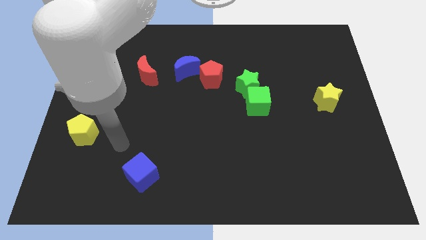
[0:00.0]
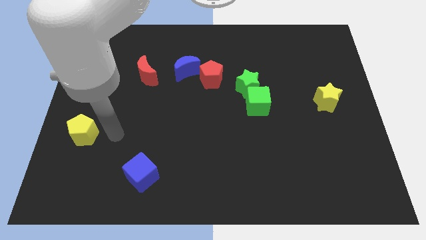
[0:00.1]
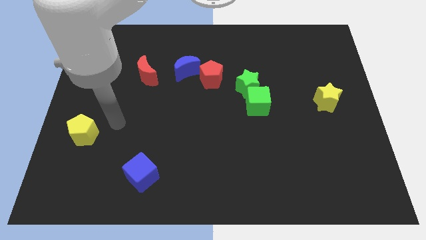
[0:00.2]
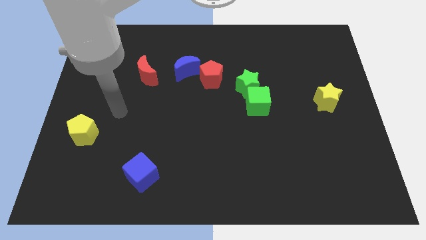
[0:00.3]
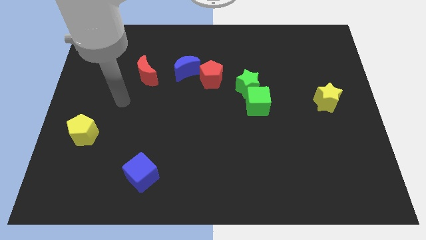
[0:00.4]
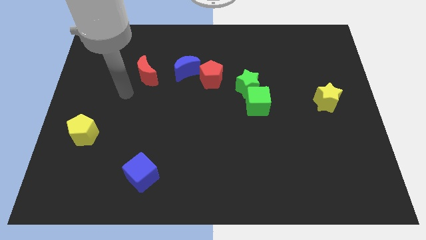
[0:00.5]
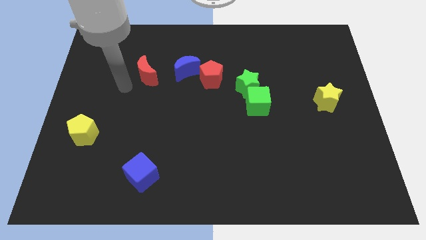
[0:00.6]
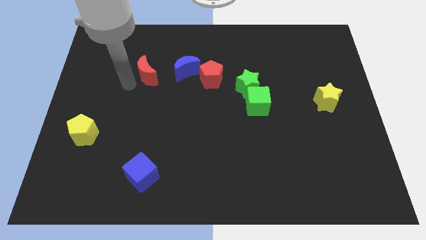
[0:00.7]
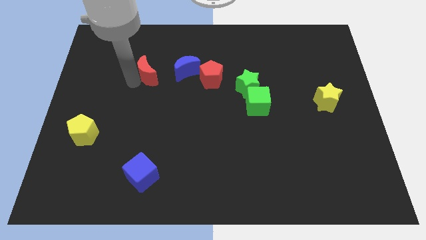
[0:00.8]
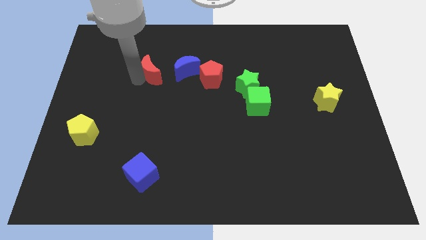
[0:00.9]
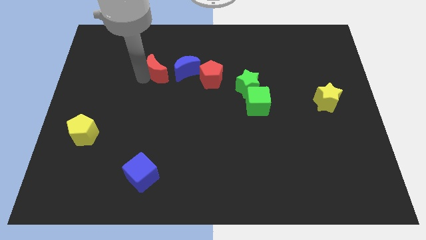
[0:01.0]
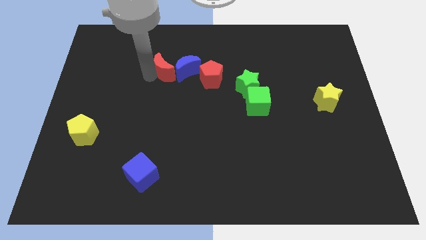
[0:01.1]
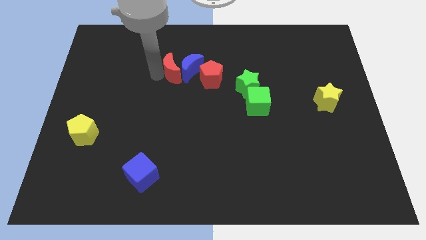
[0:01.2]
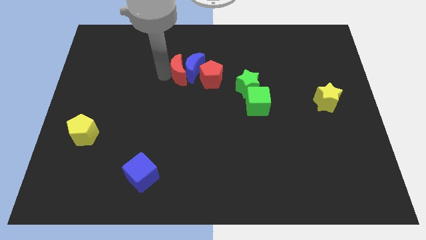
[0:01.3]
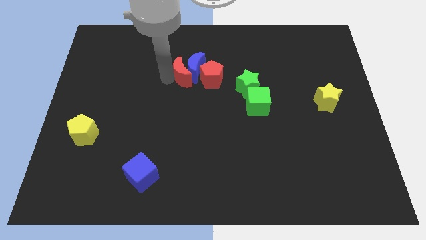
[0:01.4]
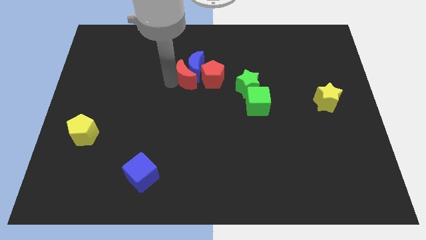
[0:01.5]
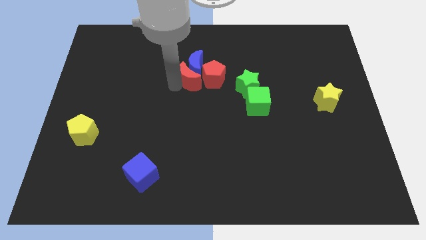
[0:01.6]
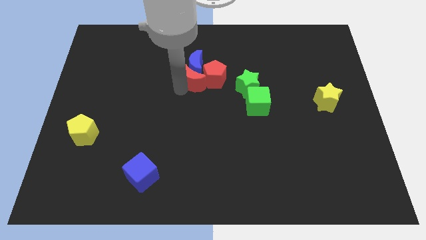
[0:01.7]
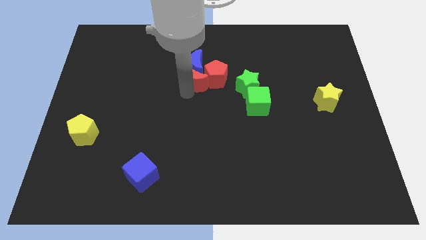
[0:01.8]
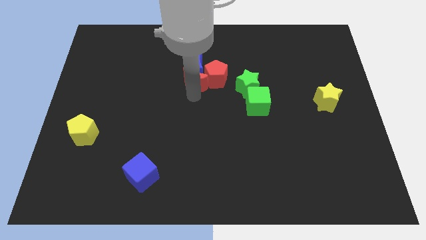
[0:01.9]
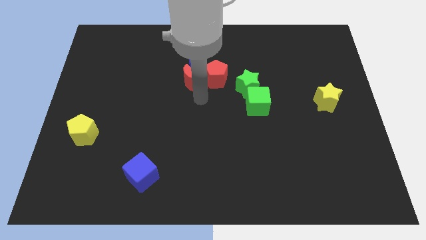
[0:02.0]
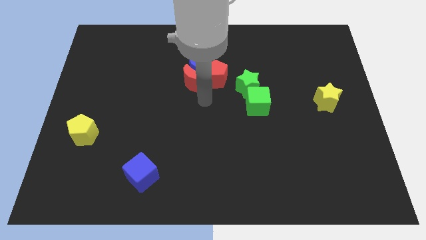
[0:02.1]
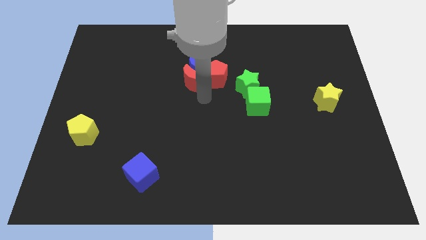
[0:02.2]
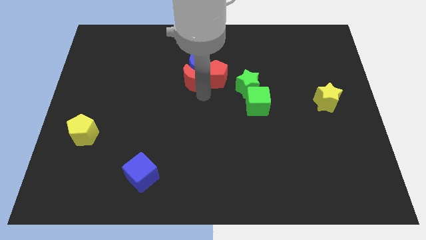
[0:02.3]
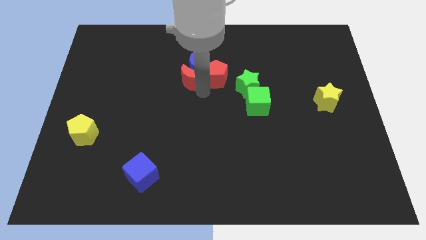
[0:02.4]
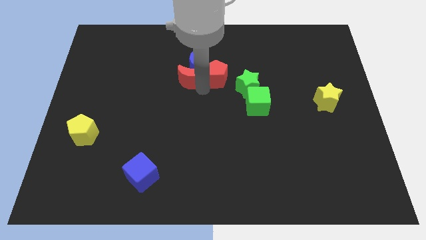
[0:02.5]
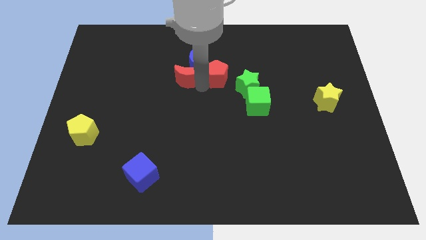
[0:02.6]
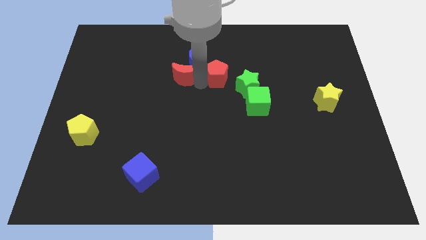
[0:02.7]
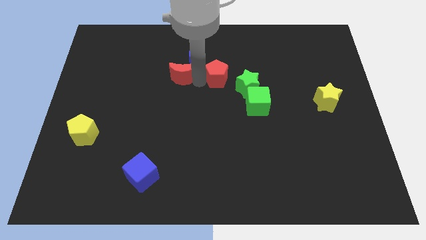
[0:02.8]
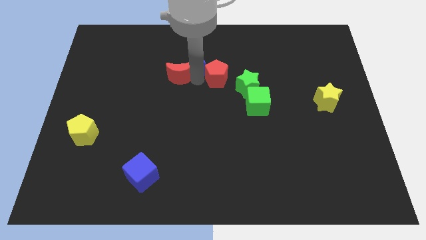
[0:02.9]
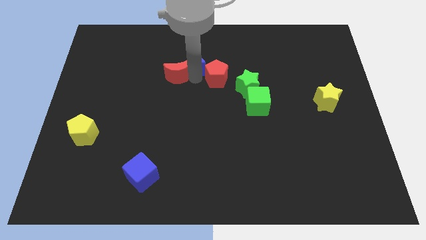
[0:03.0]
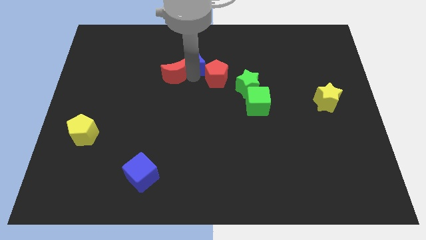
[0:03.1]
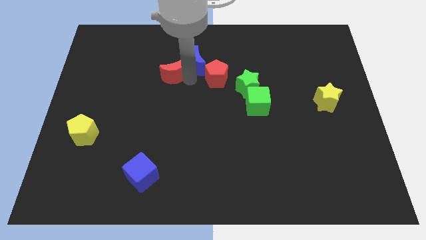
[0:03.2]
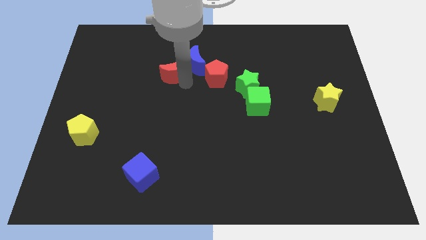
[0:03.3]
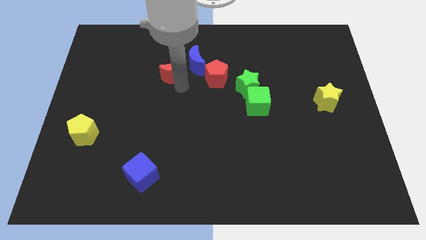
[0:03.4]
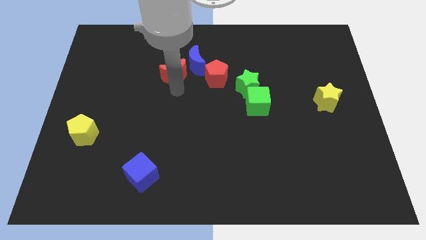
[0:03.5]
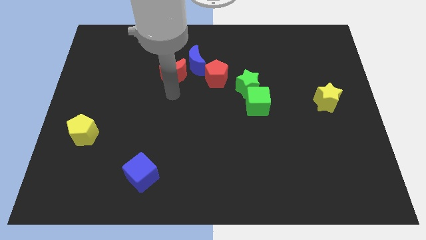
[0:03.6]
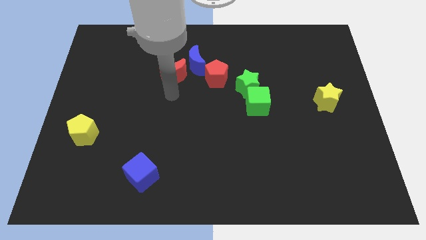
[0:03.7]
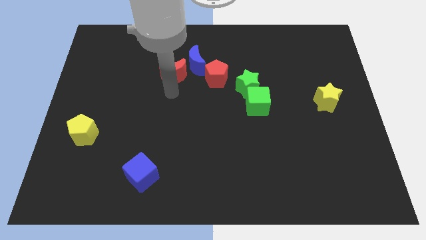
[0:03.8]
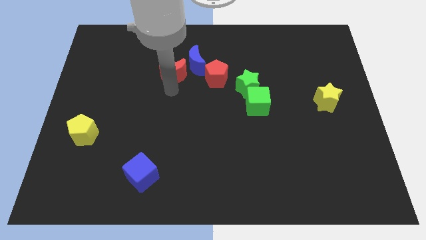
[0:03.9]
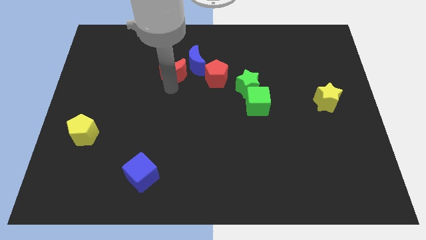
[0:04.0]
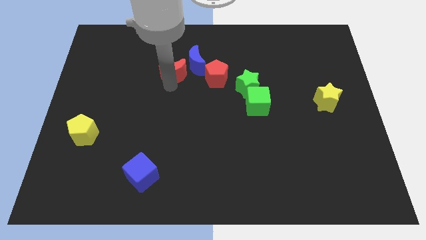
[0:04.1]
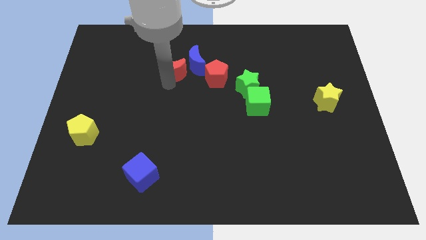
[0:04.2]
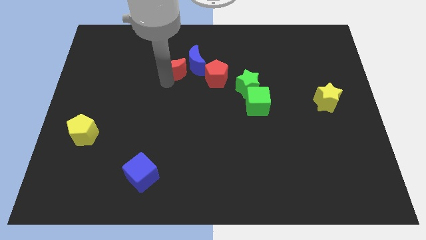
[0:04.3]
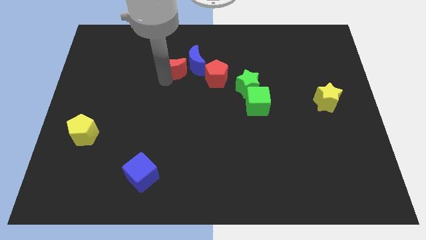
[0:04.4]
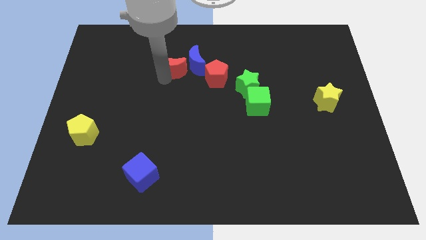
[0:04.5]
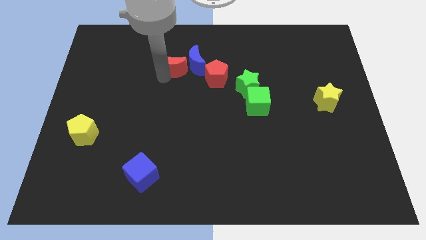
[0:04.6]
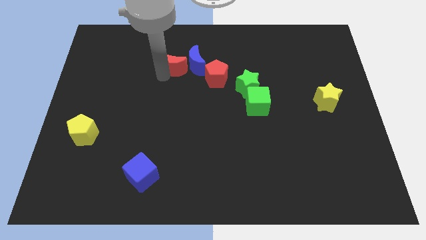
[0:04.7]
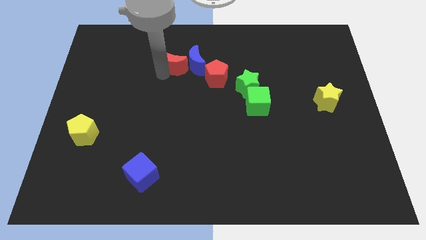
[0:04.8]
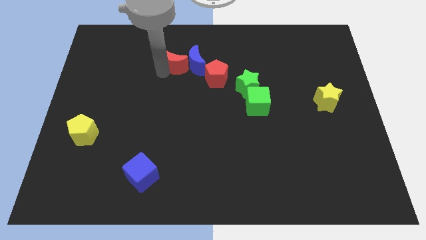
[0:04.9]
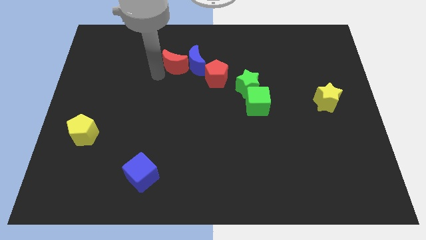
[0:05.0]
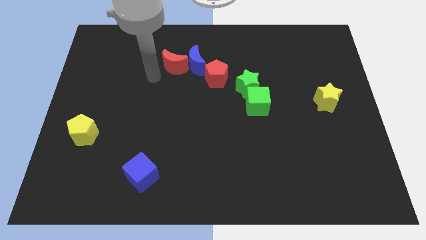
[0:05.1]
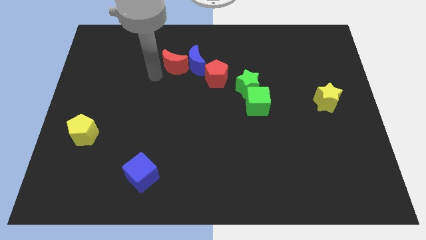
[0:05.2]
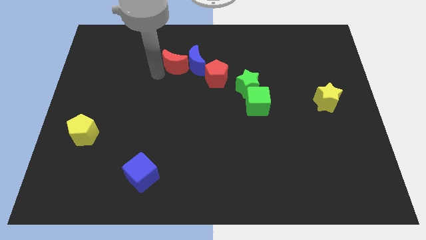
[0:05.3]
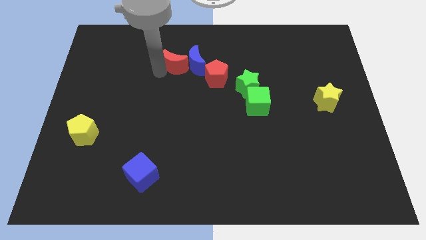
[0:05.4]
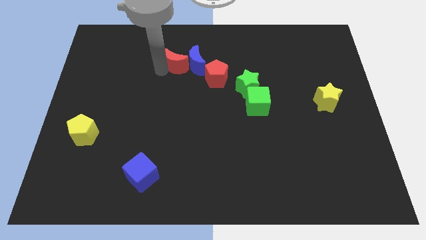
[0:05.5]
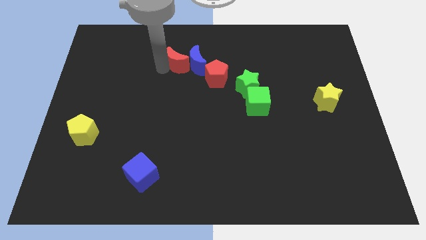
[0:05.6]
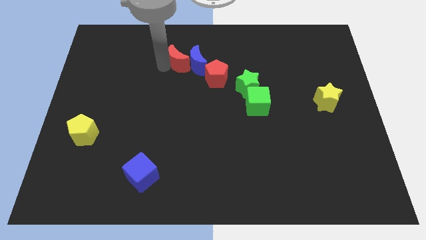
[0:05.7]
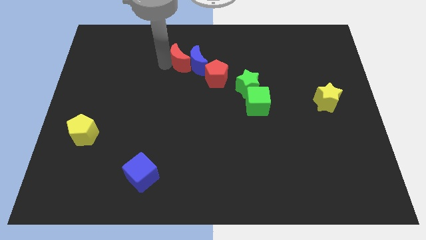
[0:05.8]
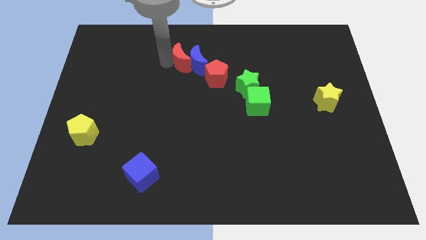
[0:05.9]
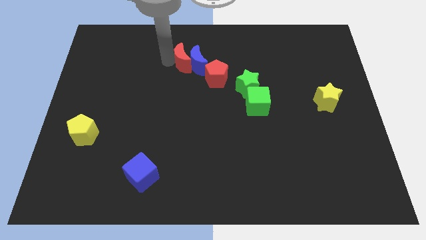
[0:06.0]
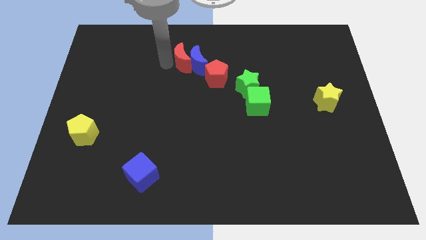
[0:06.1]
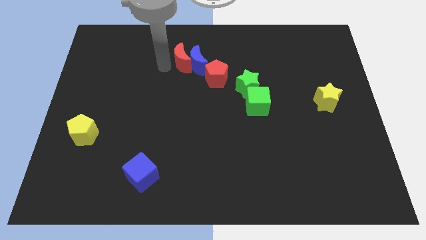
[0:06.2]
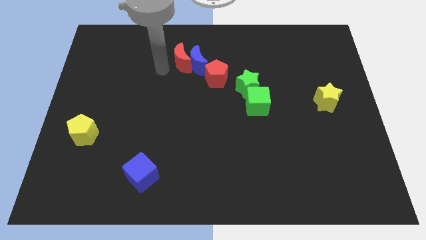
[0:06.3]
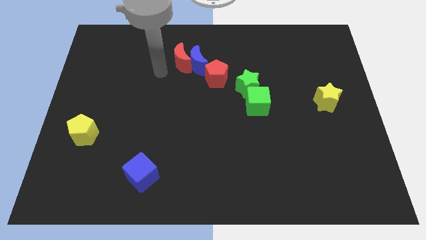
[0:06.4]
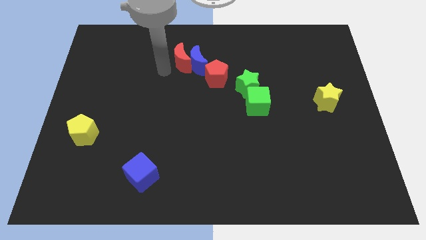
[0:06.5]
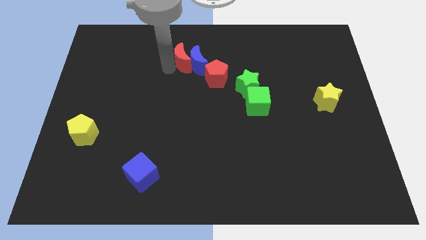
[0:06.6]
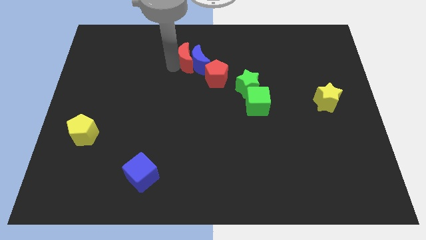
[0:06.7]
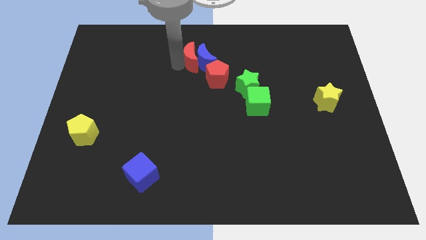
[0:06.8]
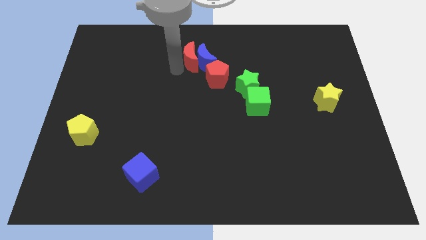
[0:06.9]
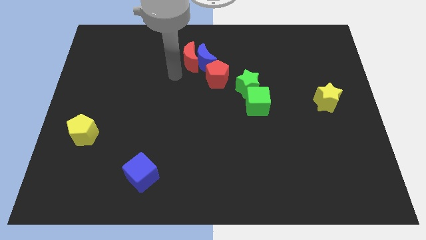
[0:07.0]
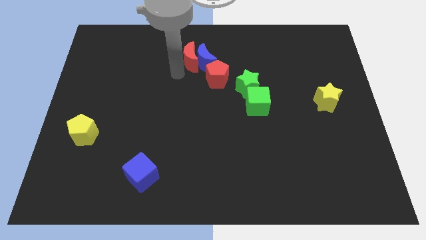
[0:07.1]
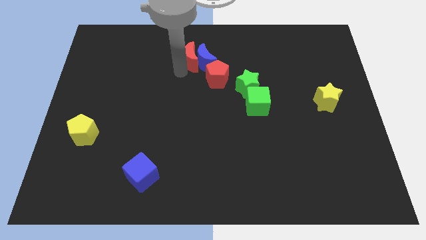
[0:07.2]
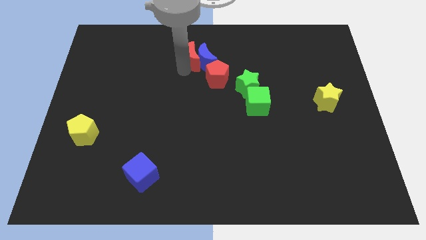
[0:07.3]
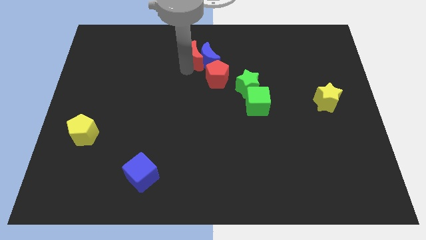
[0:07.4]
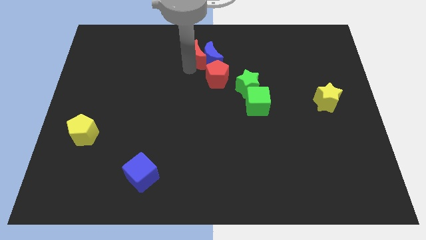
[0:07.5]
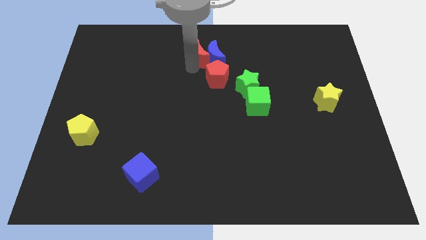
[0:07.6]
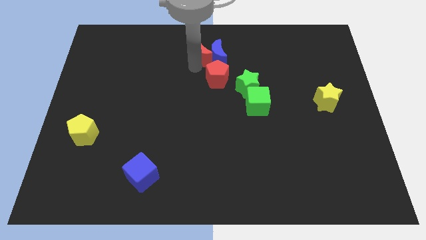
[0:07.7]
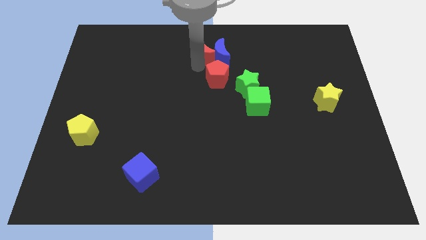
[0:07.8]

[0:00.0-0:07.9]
move the red moon to the top
